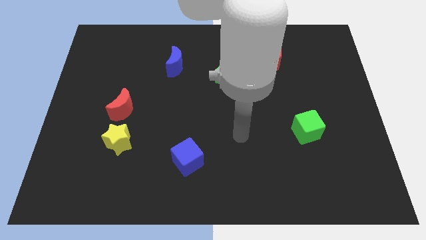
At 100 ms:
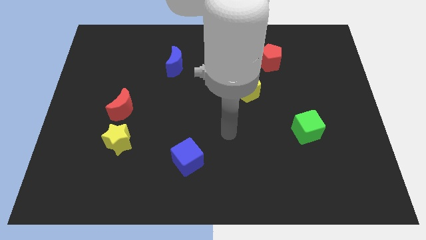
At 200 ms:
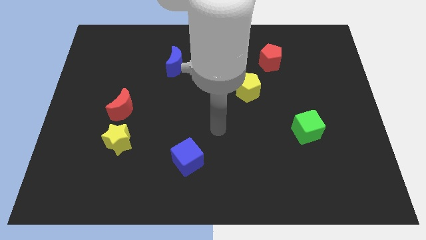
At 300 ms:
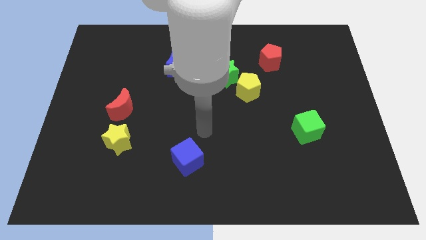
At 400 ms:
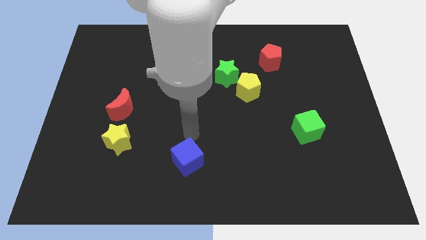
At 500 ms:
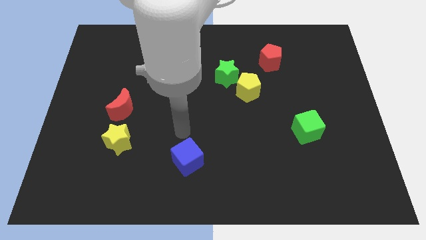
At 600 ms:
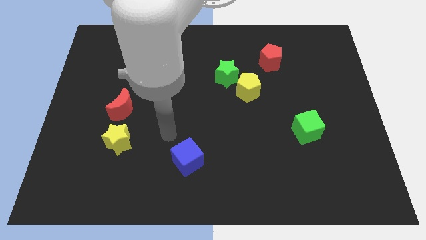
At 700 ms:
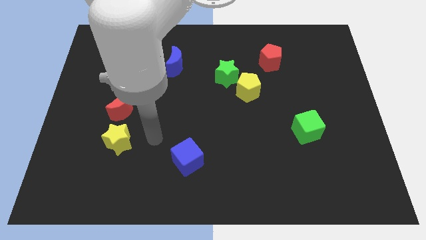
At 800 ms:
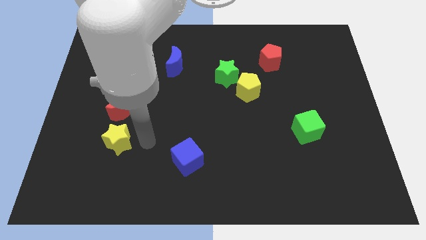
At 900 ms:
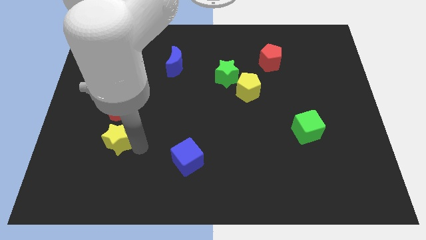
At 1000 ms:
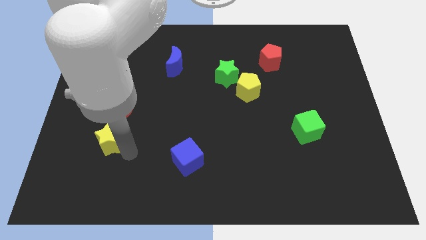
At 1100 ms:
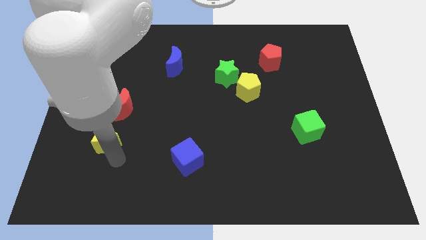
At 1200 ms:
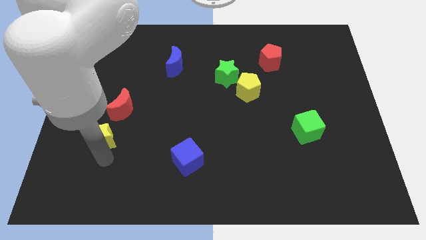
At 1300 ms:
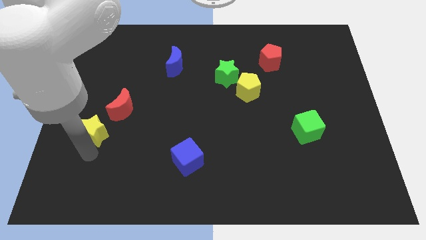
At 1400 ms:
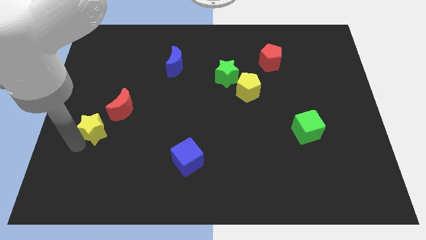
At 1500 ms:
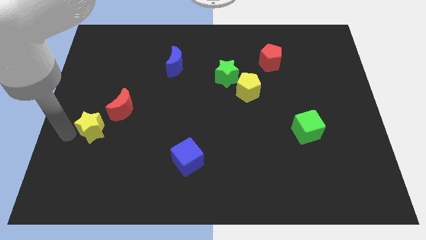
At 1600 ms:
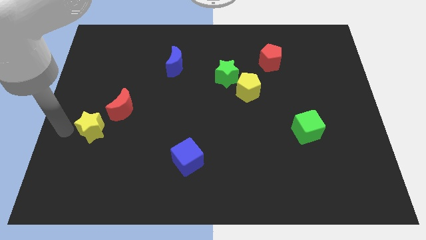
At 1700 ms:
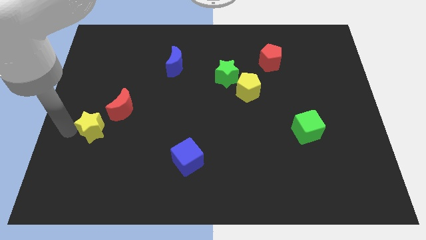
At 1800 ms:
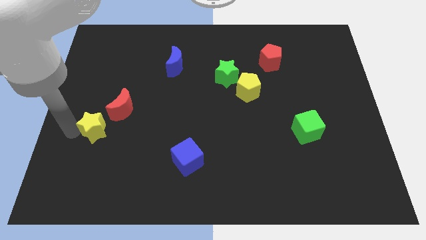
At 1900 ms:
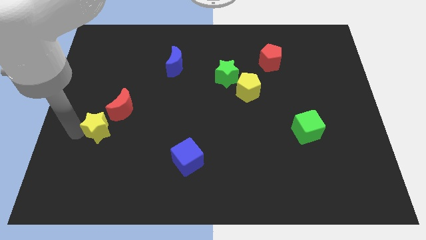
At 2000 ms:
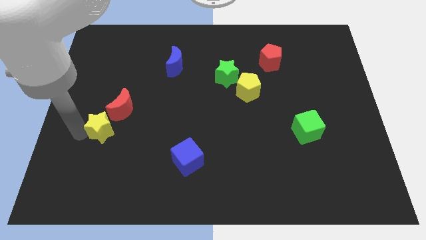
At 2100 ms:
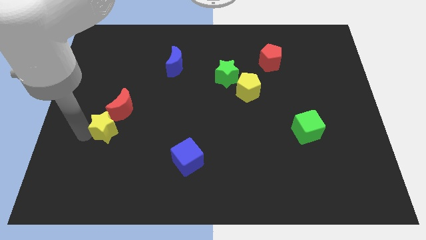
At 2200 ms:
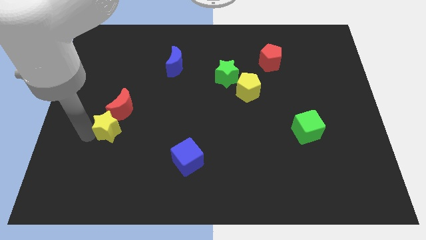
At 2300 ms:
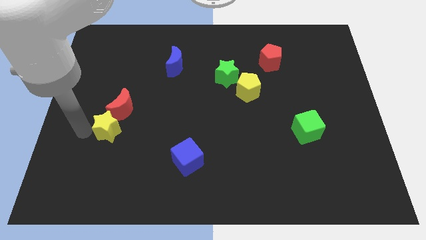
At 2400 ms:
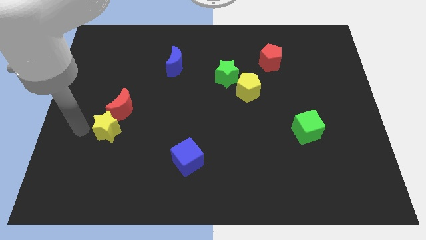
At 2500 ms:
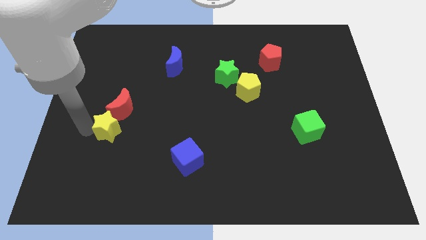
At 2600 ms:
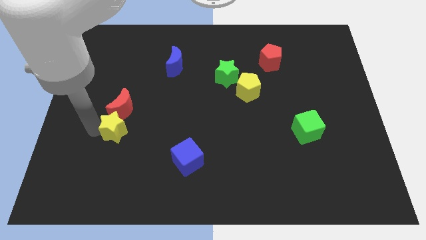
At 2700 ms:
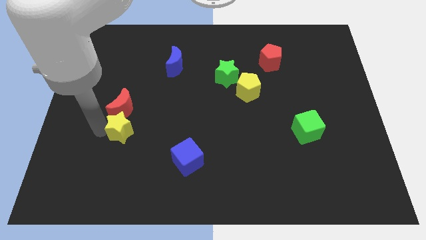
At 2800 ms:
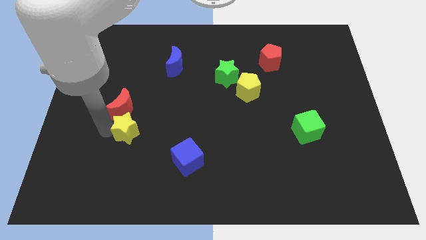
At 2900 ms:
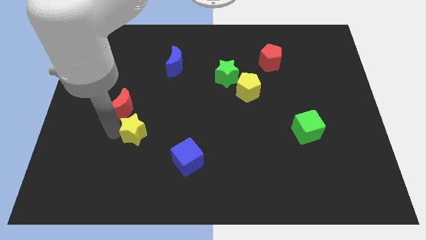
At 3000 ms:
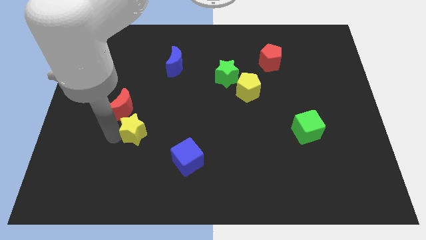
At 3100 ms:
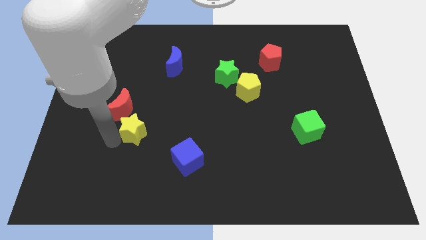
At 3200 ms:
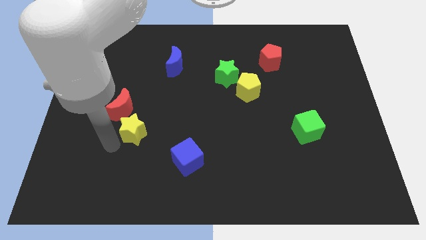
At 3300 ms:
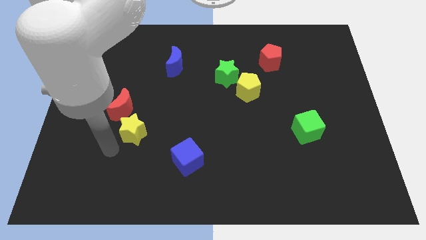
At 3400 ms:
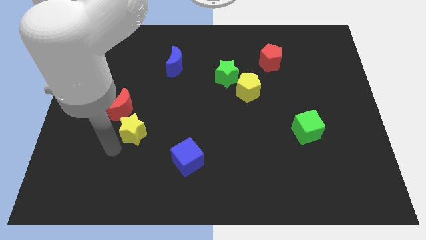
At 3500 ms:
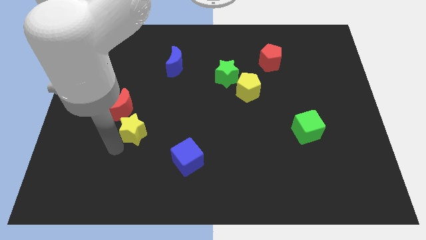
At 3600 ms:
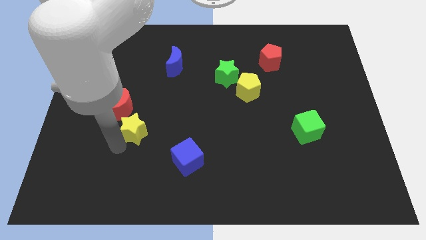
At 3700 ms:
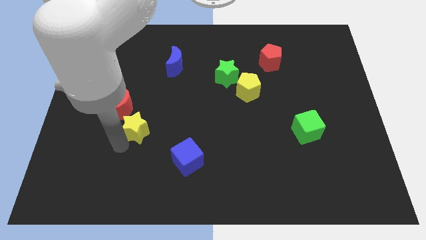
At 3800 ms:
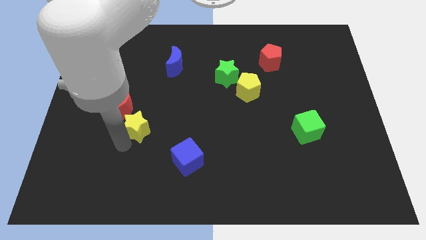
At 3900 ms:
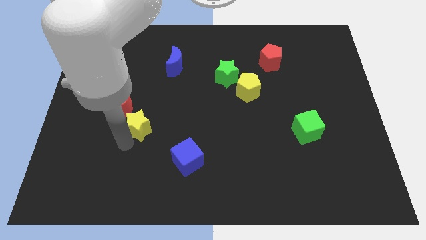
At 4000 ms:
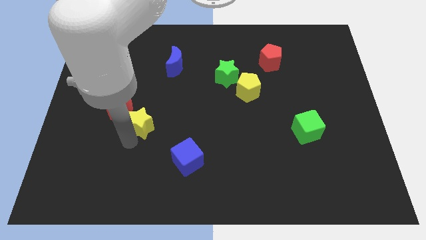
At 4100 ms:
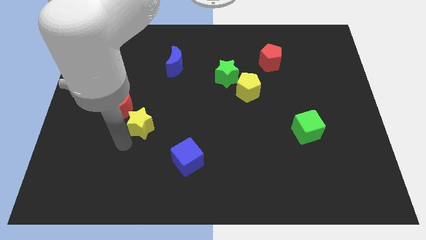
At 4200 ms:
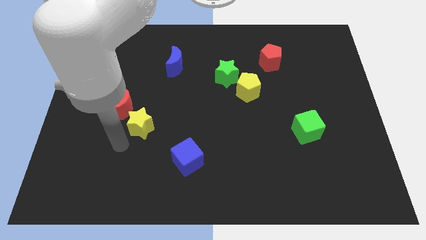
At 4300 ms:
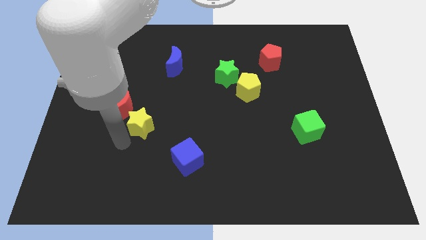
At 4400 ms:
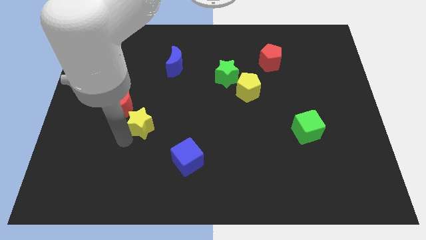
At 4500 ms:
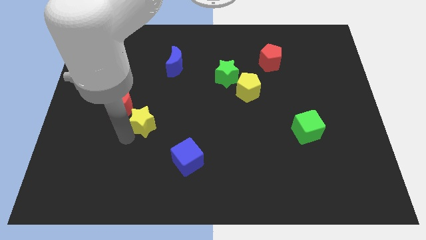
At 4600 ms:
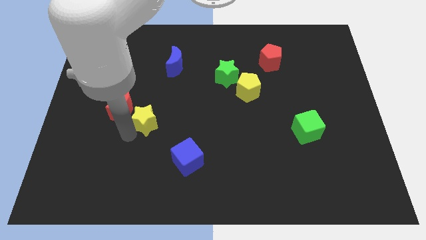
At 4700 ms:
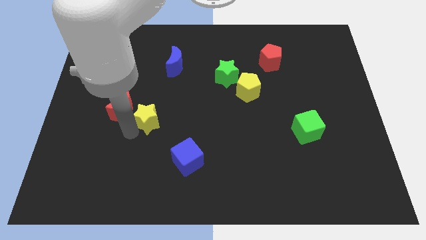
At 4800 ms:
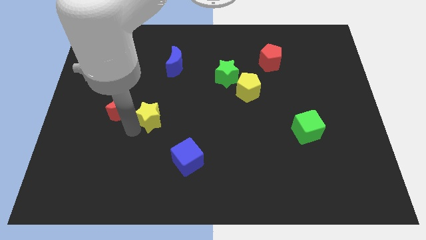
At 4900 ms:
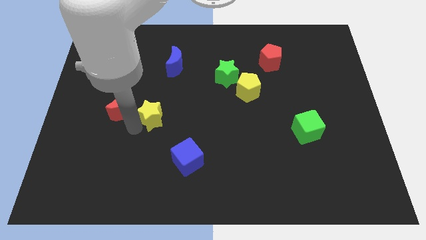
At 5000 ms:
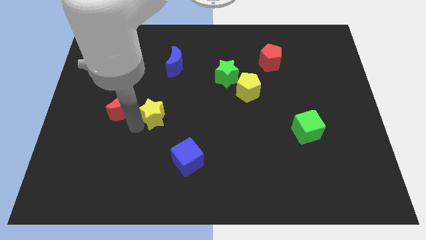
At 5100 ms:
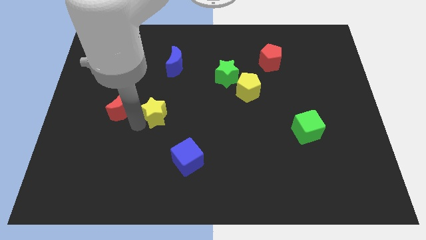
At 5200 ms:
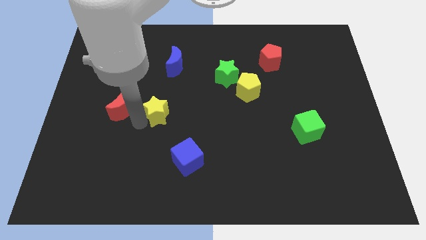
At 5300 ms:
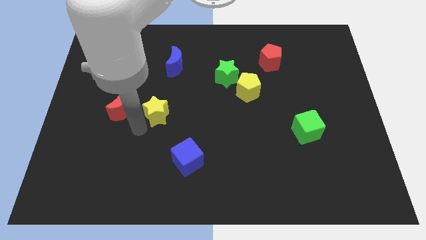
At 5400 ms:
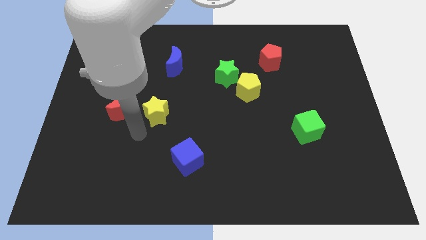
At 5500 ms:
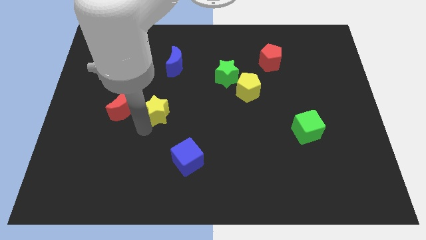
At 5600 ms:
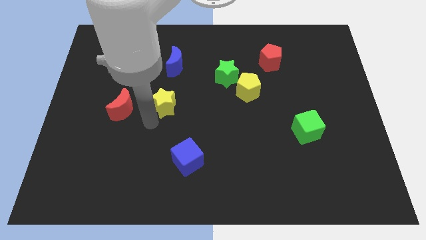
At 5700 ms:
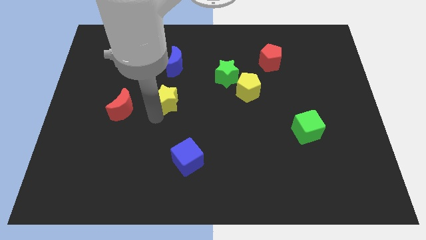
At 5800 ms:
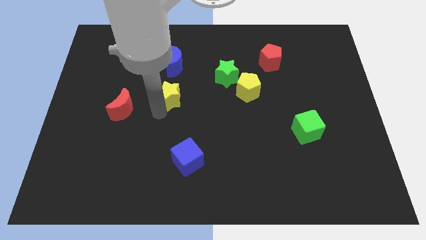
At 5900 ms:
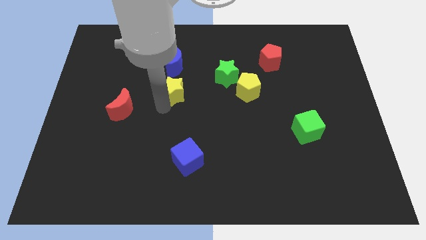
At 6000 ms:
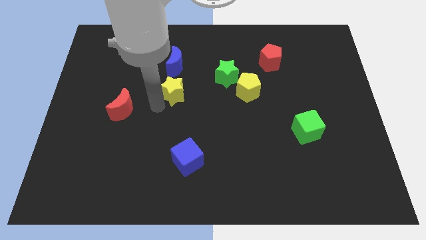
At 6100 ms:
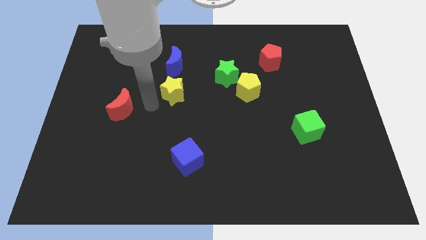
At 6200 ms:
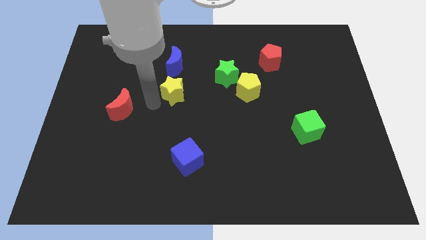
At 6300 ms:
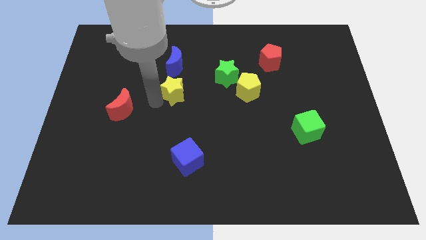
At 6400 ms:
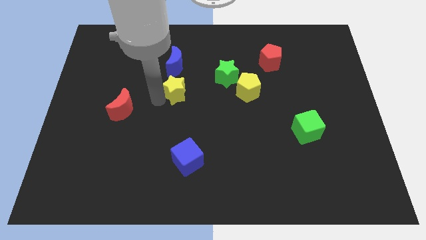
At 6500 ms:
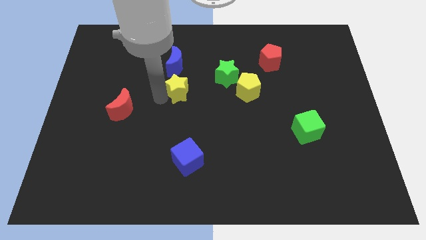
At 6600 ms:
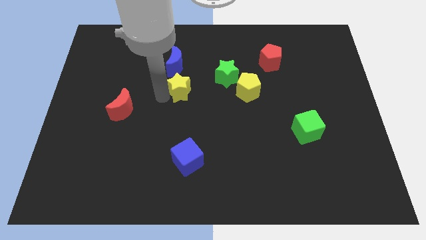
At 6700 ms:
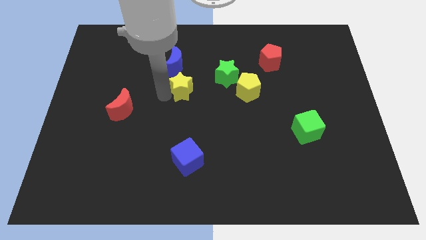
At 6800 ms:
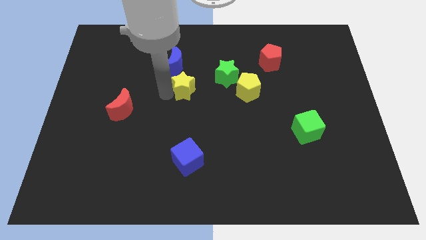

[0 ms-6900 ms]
push the yellow star upwards and right diagonally

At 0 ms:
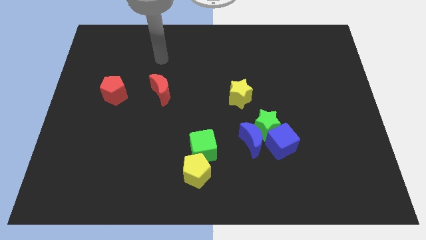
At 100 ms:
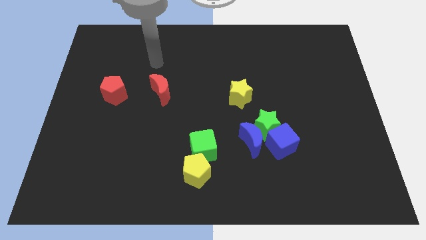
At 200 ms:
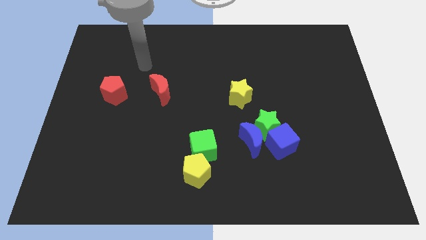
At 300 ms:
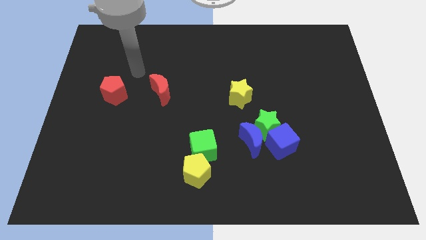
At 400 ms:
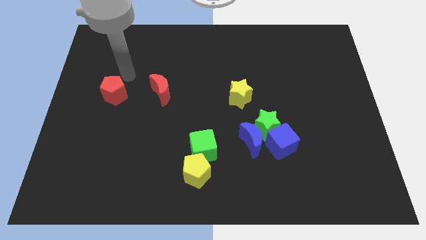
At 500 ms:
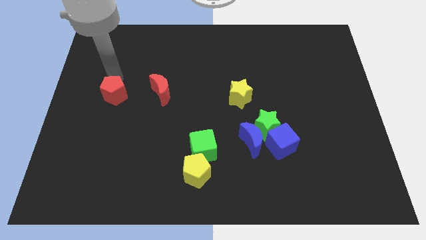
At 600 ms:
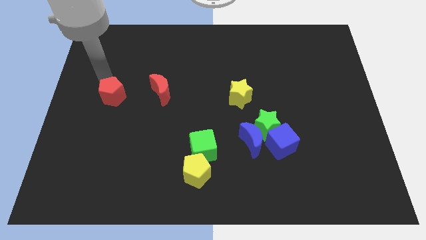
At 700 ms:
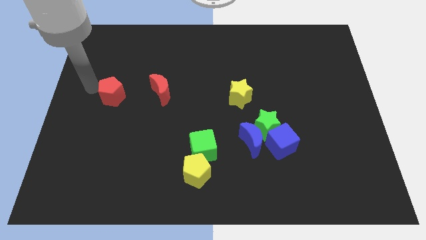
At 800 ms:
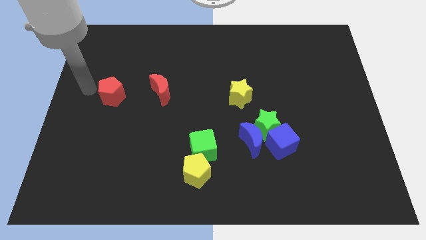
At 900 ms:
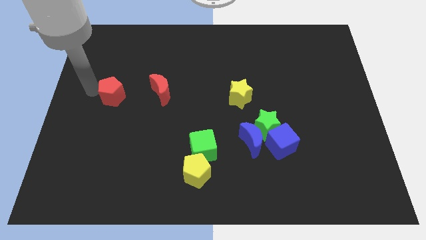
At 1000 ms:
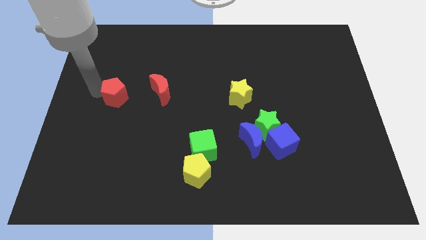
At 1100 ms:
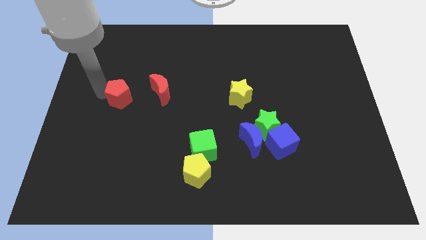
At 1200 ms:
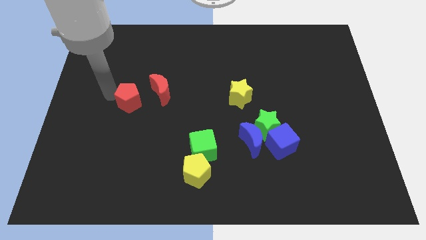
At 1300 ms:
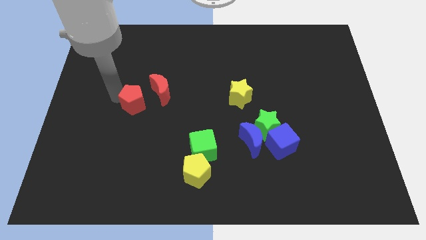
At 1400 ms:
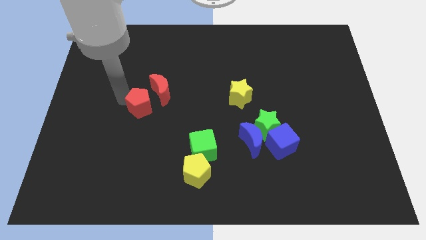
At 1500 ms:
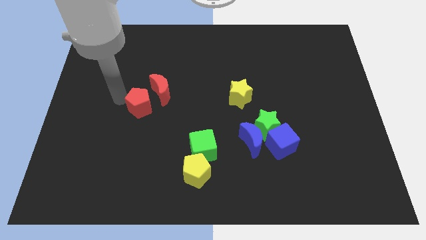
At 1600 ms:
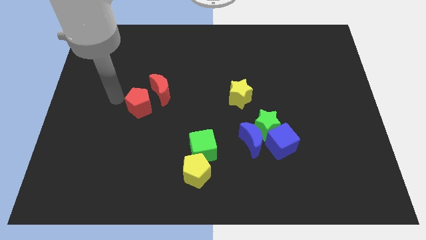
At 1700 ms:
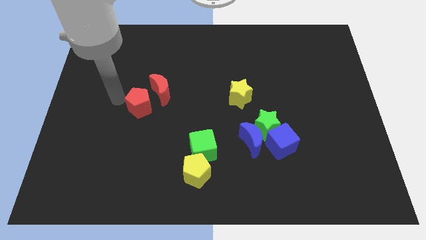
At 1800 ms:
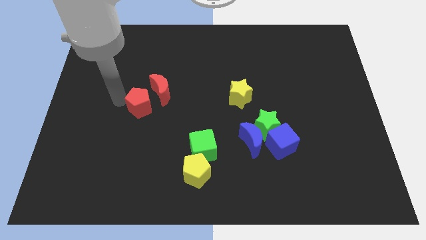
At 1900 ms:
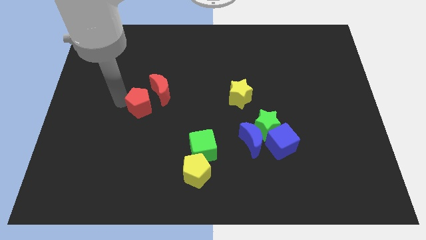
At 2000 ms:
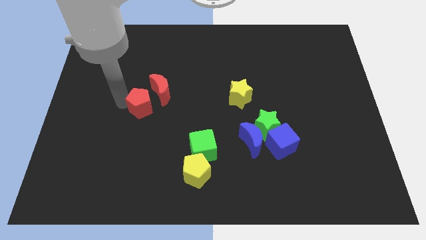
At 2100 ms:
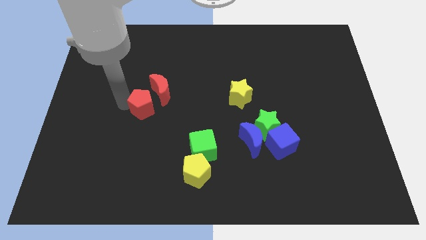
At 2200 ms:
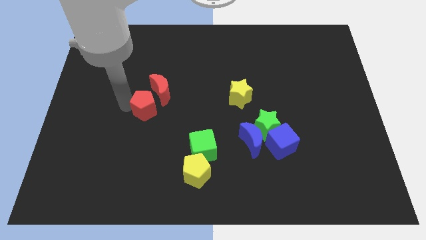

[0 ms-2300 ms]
slightly slide the red pentagon to the right
